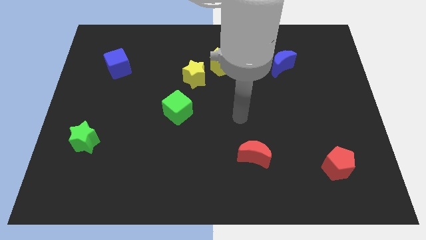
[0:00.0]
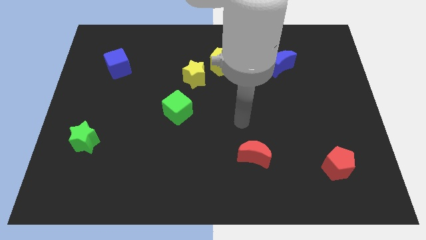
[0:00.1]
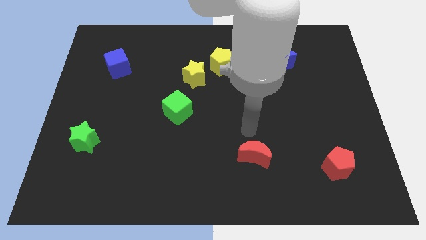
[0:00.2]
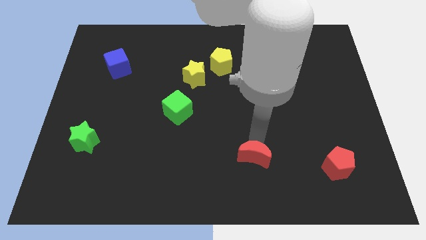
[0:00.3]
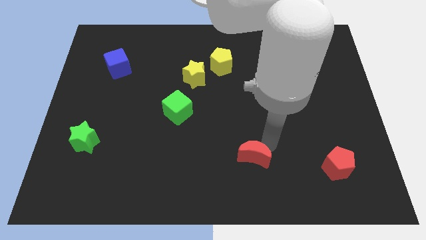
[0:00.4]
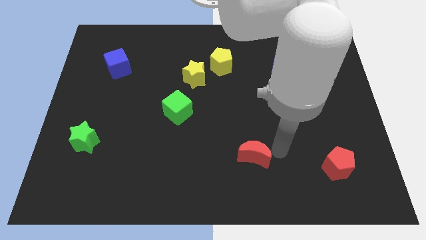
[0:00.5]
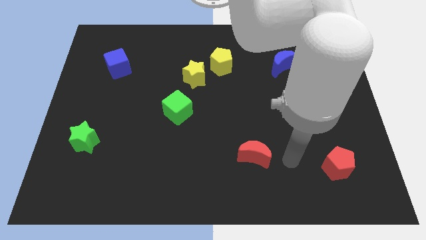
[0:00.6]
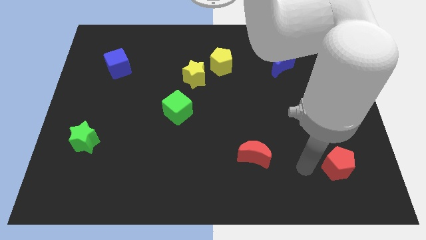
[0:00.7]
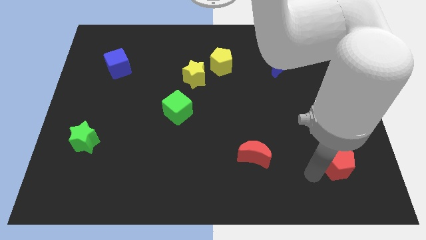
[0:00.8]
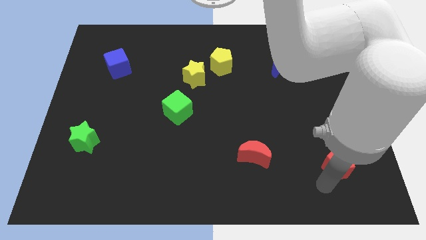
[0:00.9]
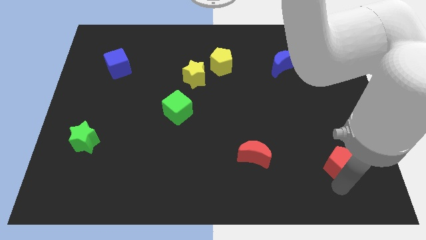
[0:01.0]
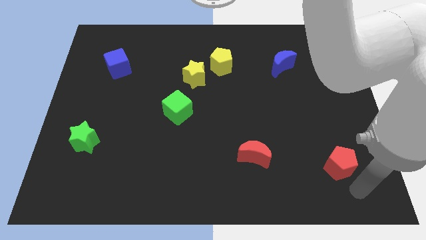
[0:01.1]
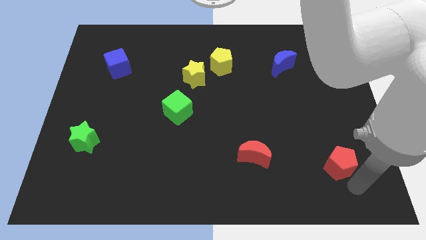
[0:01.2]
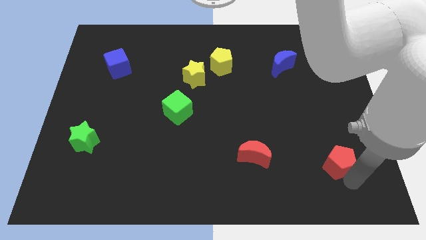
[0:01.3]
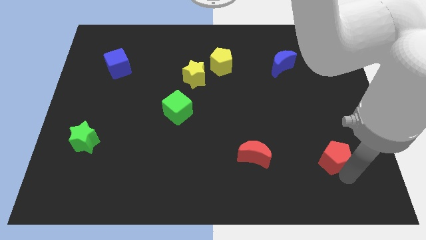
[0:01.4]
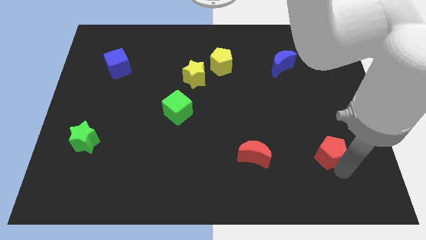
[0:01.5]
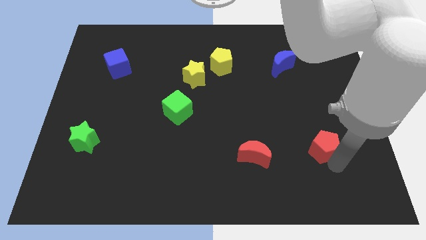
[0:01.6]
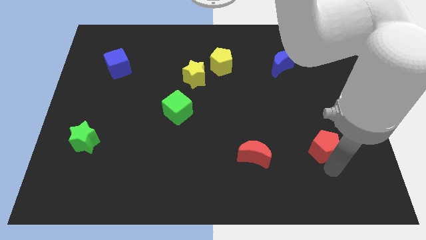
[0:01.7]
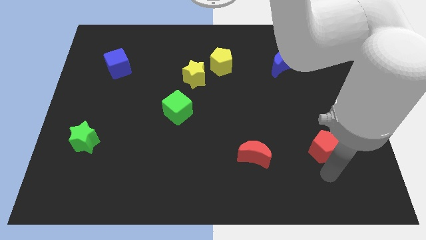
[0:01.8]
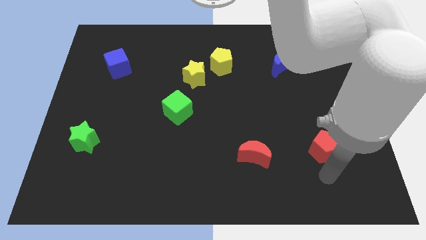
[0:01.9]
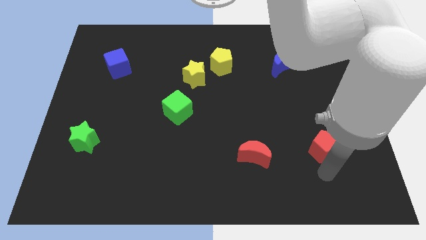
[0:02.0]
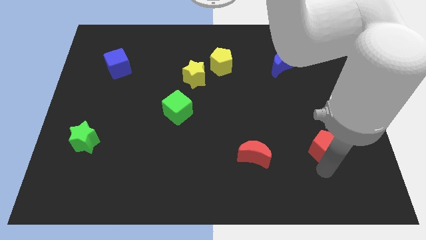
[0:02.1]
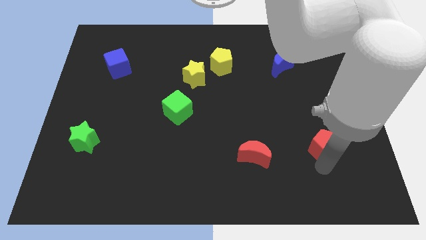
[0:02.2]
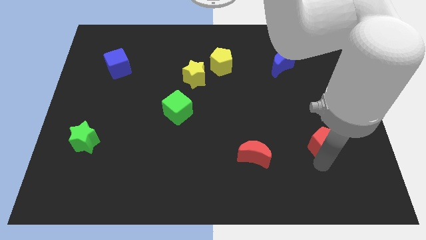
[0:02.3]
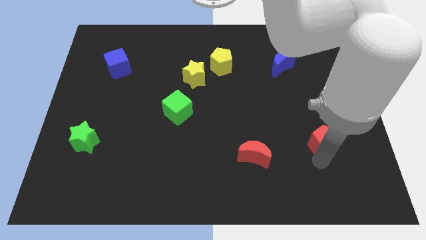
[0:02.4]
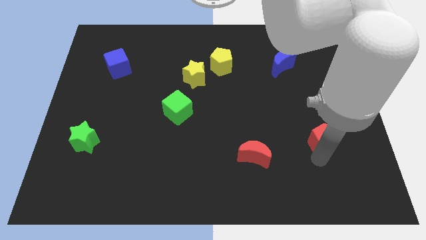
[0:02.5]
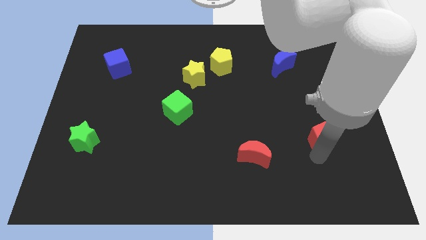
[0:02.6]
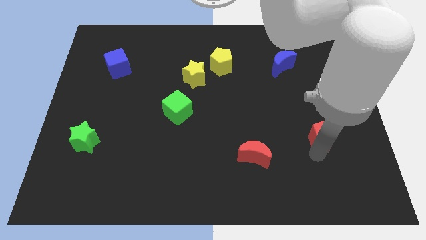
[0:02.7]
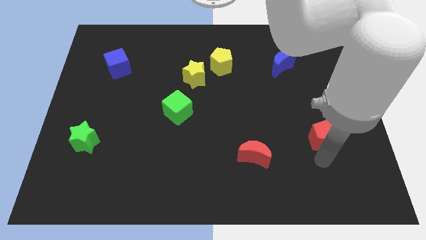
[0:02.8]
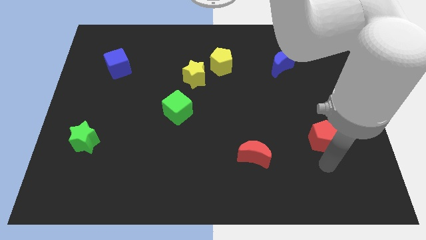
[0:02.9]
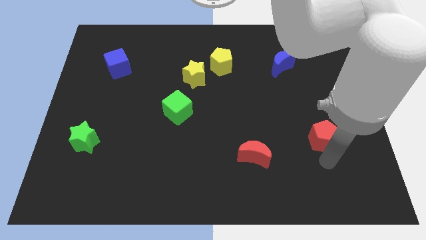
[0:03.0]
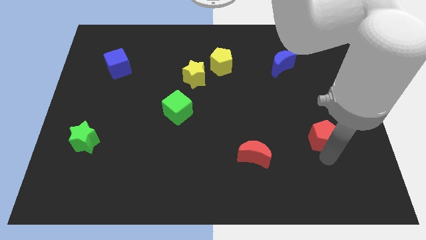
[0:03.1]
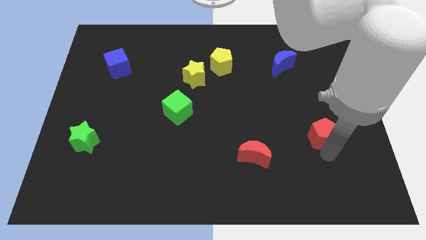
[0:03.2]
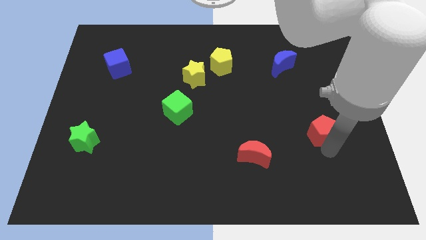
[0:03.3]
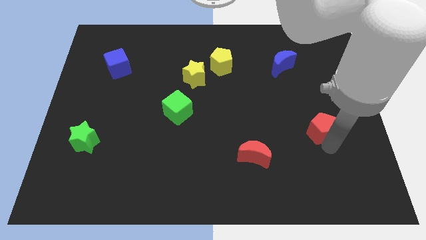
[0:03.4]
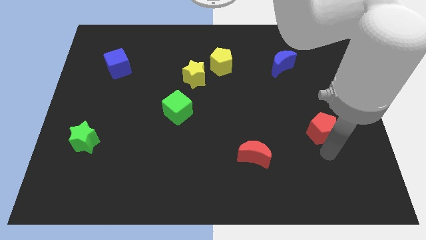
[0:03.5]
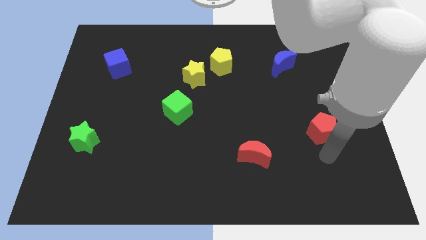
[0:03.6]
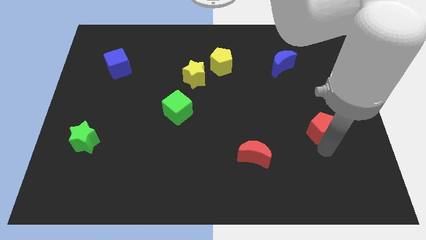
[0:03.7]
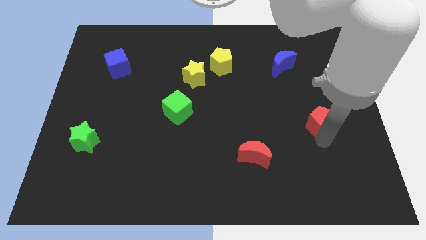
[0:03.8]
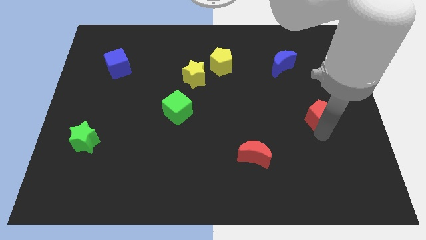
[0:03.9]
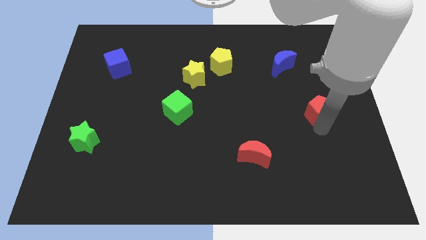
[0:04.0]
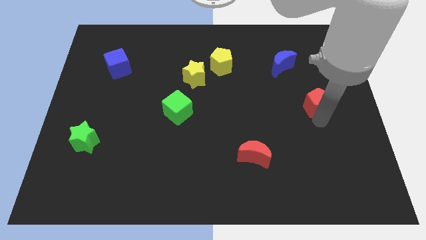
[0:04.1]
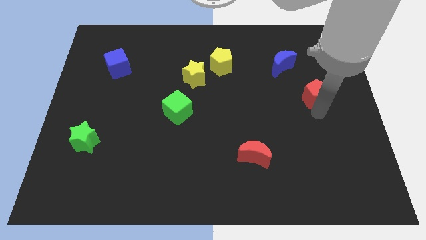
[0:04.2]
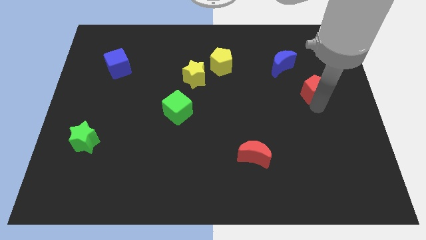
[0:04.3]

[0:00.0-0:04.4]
push the red pentagon upwards

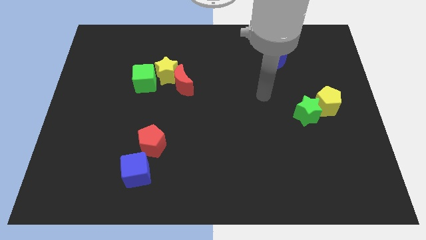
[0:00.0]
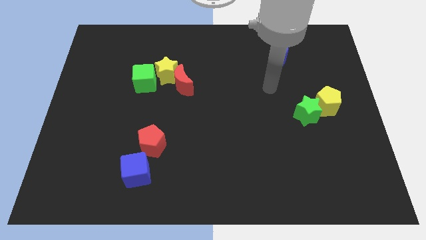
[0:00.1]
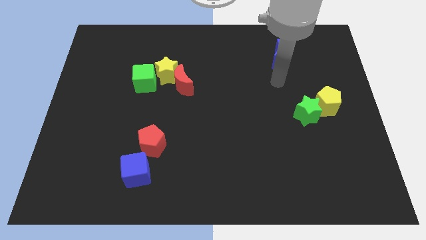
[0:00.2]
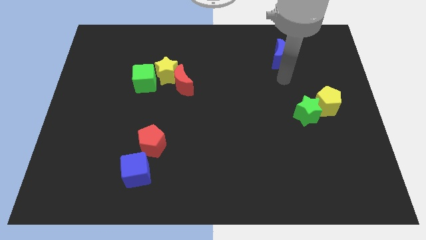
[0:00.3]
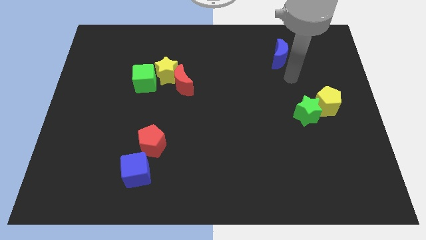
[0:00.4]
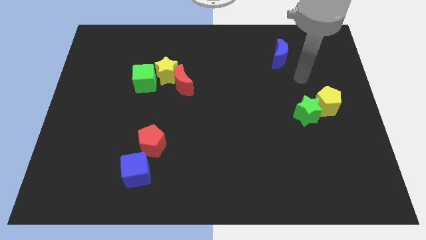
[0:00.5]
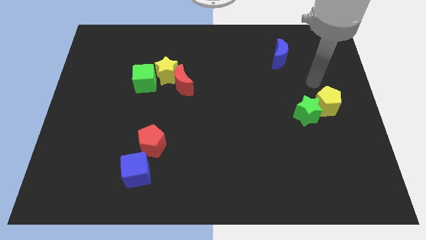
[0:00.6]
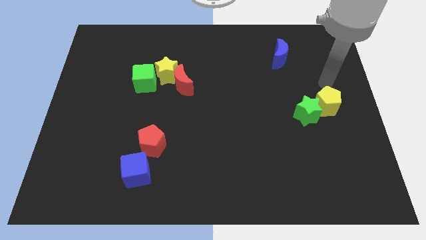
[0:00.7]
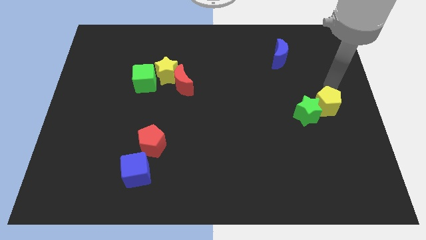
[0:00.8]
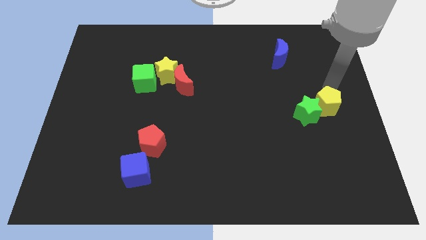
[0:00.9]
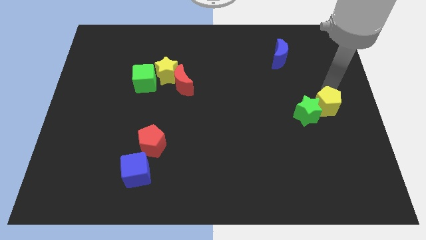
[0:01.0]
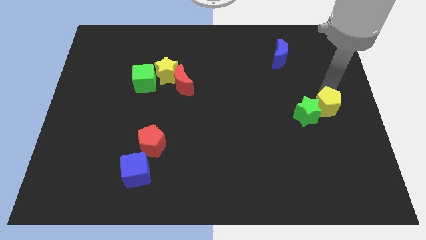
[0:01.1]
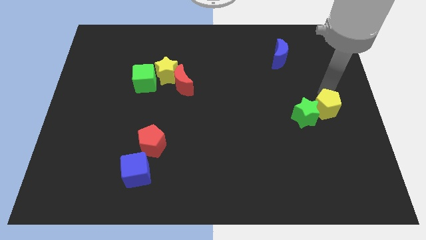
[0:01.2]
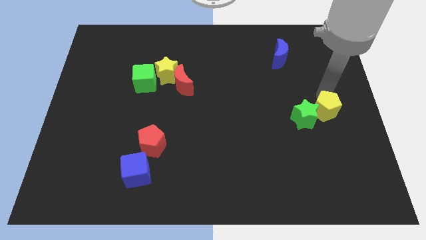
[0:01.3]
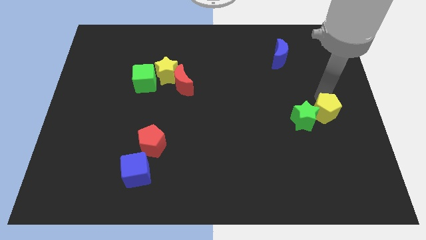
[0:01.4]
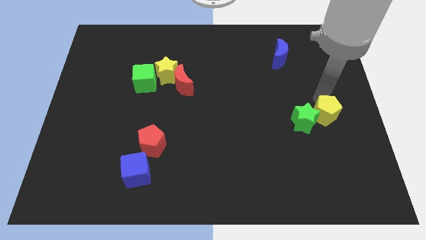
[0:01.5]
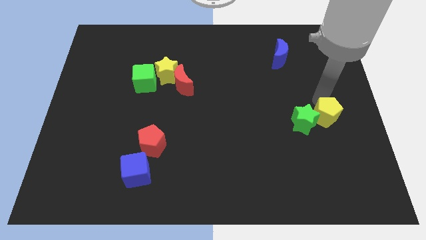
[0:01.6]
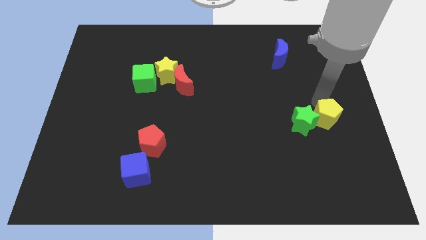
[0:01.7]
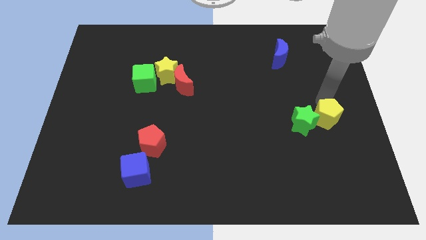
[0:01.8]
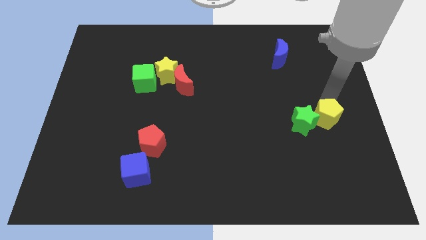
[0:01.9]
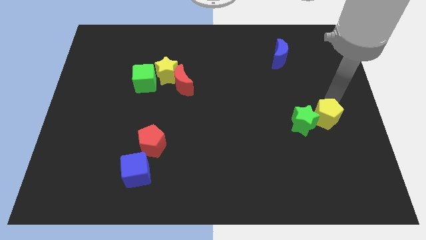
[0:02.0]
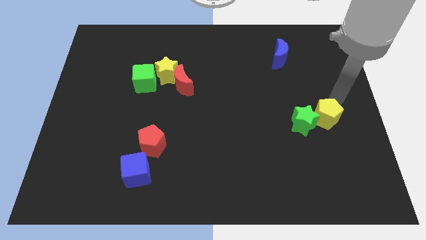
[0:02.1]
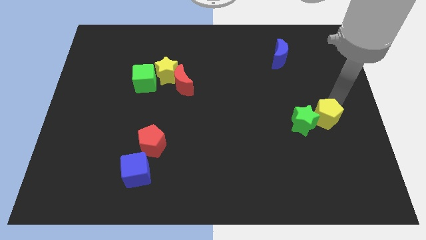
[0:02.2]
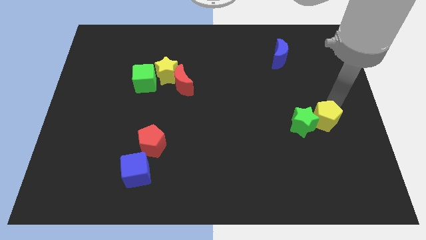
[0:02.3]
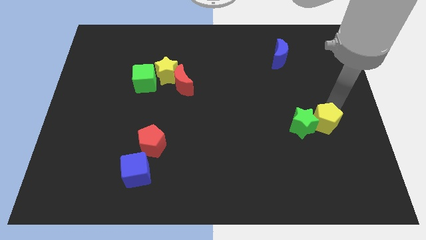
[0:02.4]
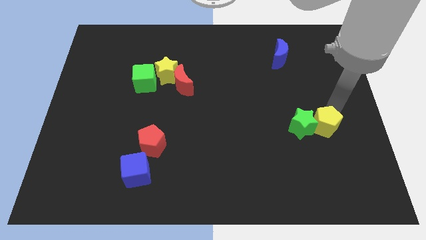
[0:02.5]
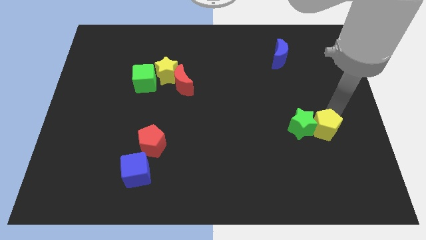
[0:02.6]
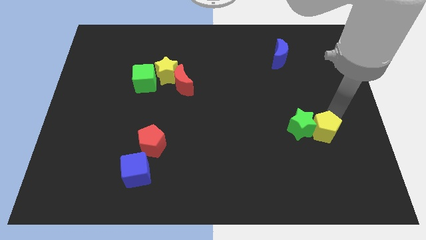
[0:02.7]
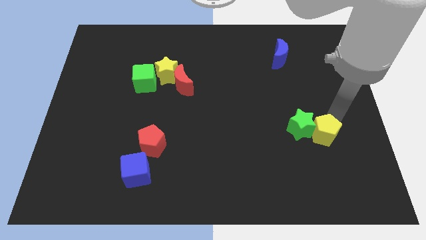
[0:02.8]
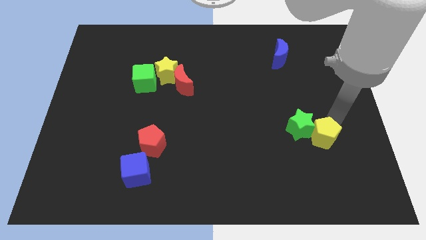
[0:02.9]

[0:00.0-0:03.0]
push the yellow pentagon slightly down and left

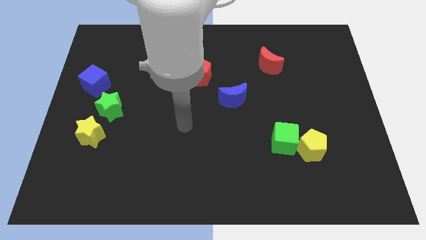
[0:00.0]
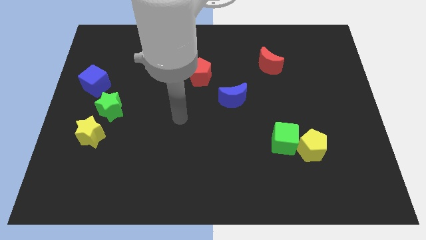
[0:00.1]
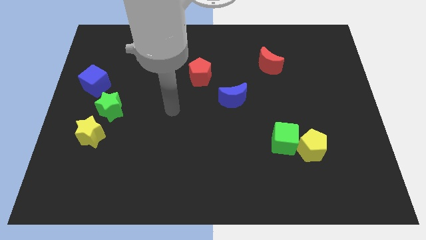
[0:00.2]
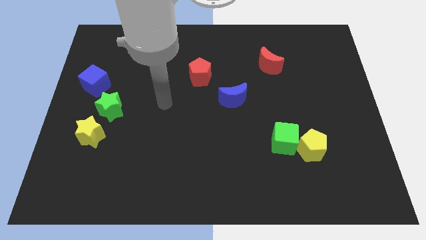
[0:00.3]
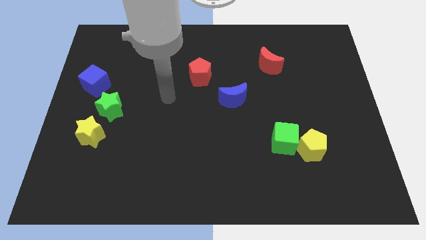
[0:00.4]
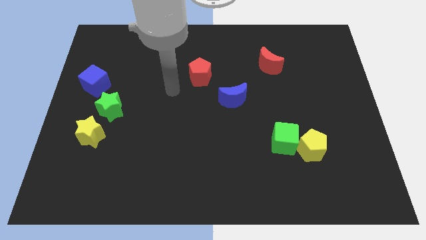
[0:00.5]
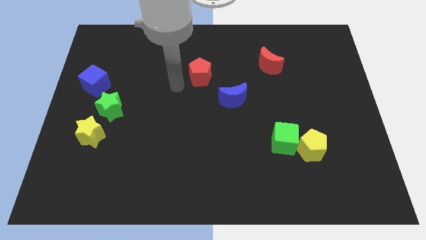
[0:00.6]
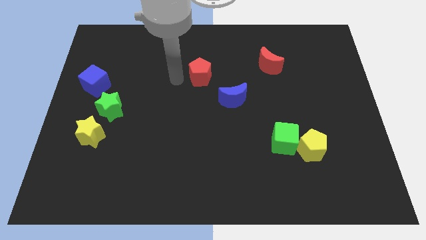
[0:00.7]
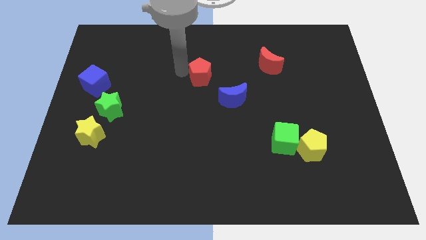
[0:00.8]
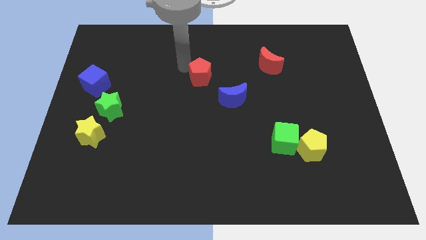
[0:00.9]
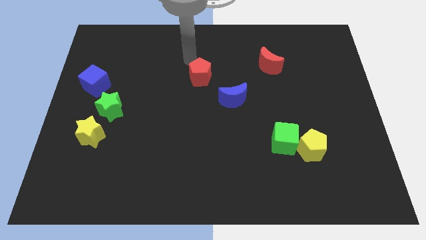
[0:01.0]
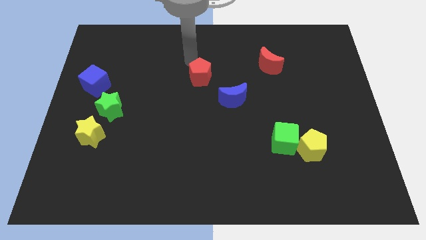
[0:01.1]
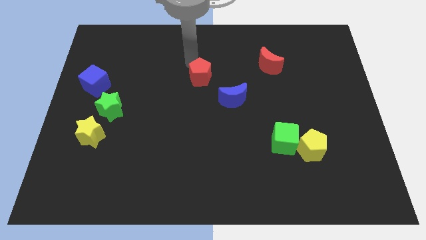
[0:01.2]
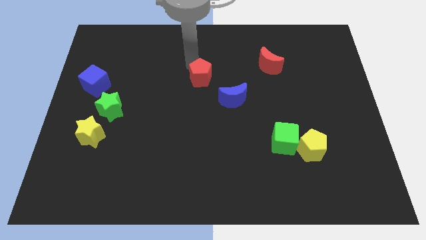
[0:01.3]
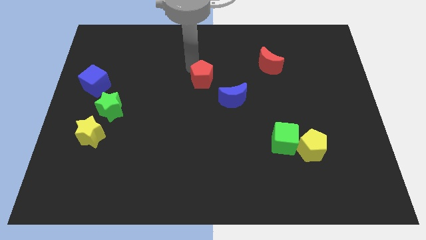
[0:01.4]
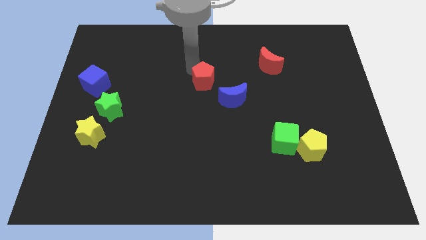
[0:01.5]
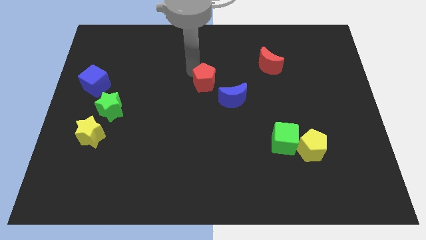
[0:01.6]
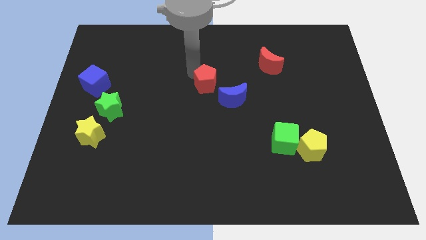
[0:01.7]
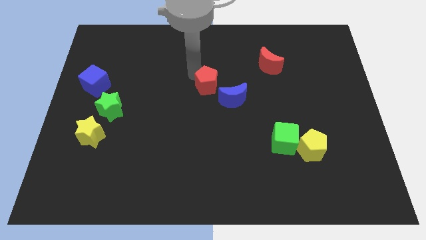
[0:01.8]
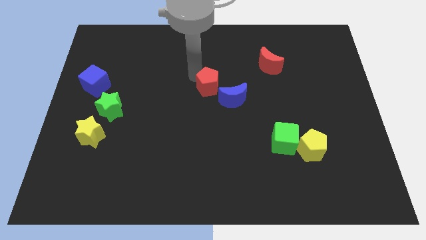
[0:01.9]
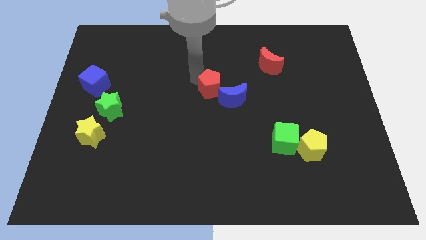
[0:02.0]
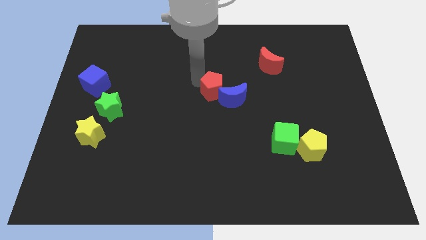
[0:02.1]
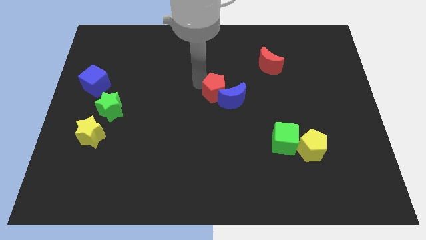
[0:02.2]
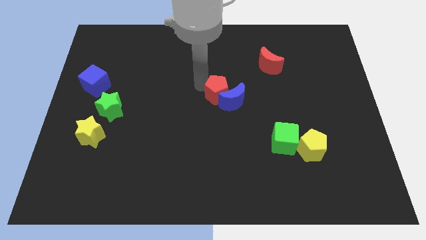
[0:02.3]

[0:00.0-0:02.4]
push the red pentagon down and then to the right somewhat
